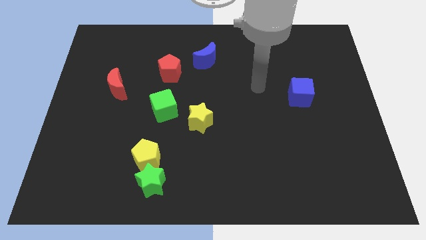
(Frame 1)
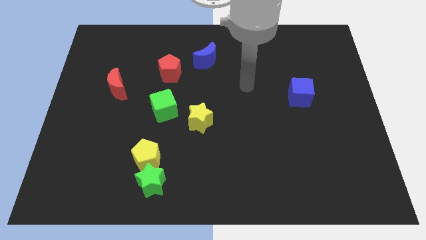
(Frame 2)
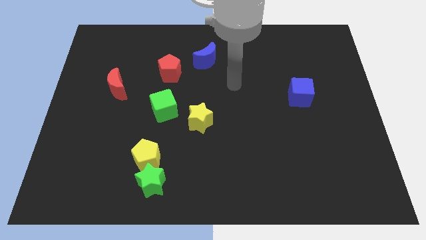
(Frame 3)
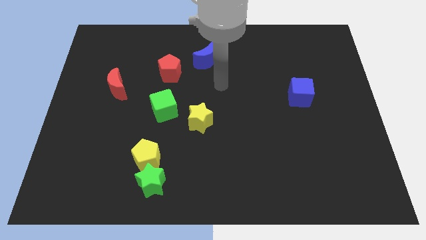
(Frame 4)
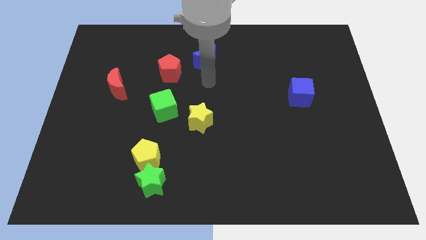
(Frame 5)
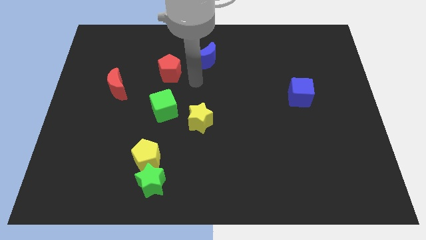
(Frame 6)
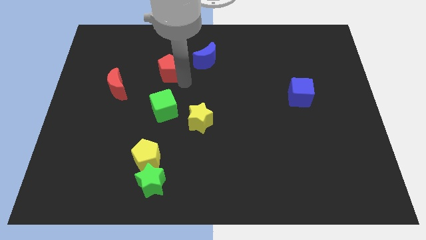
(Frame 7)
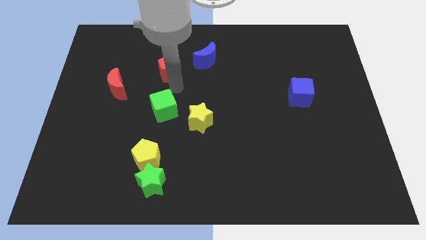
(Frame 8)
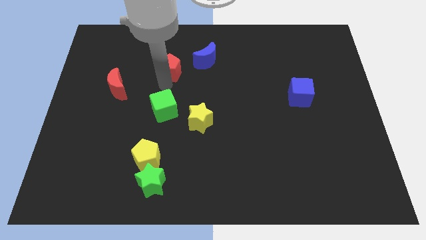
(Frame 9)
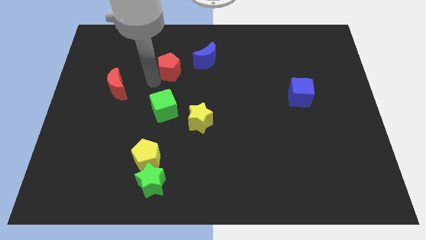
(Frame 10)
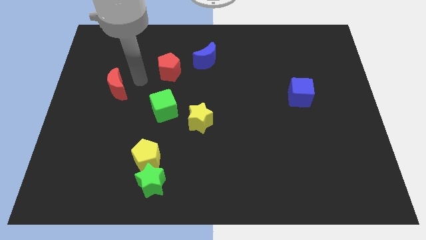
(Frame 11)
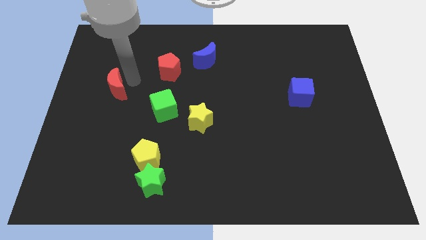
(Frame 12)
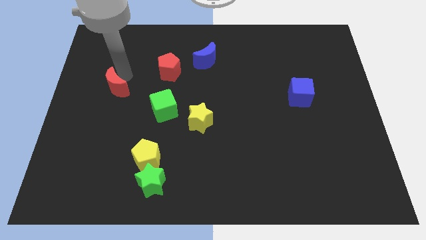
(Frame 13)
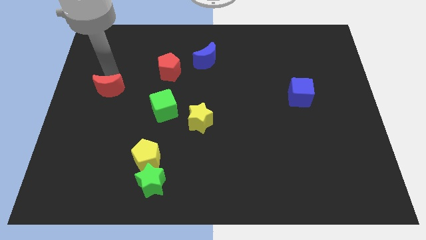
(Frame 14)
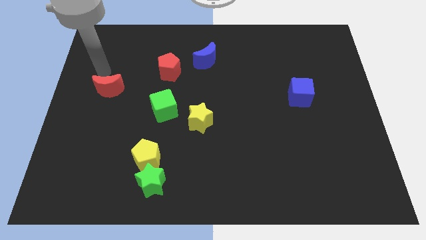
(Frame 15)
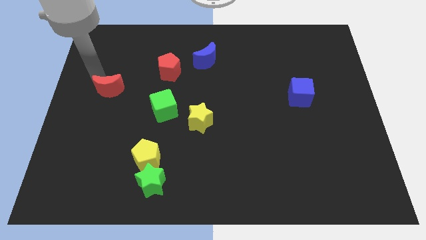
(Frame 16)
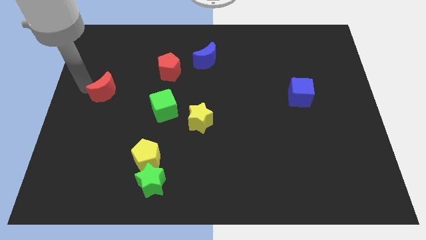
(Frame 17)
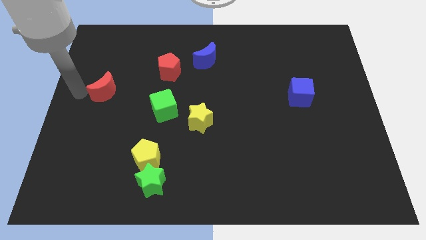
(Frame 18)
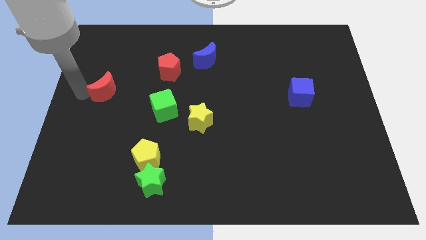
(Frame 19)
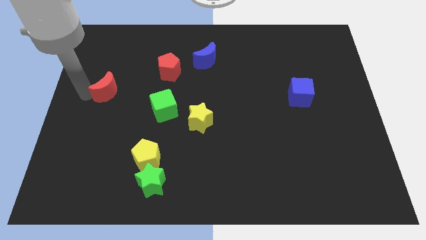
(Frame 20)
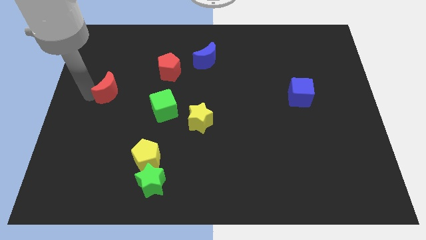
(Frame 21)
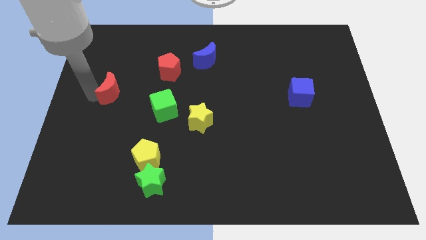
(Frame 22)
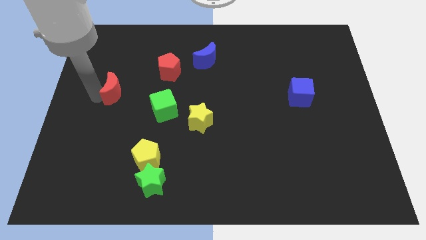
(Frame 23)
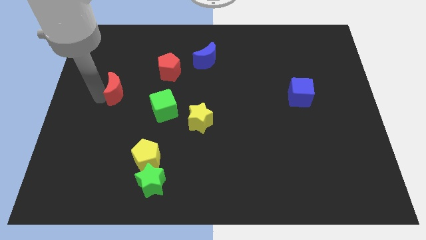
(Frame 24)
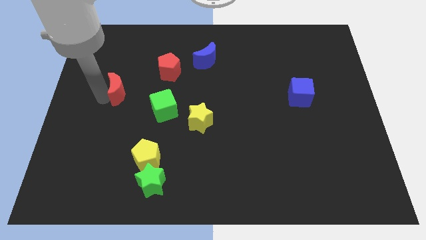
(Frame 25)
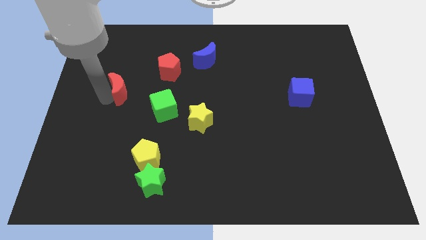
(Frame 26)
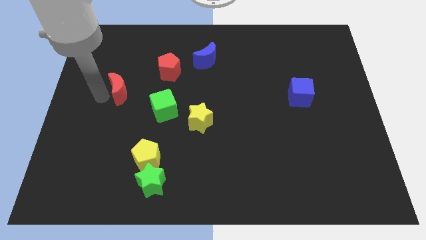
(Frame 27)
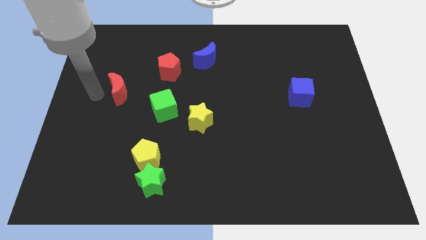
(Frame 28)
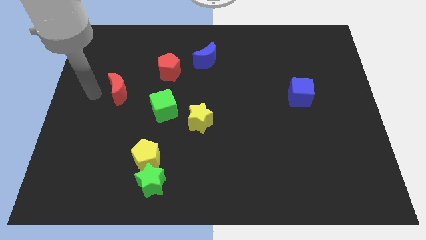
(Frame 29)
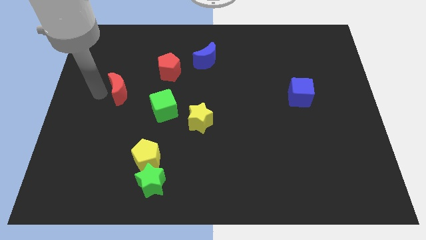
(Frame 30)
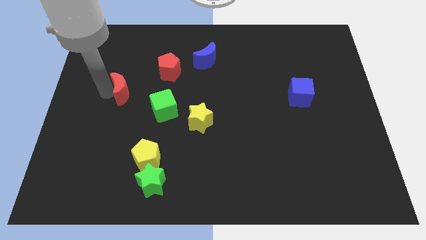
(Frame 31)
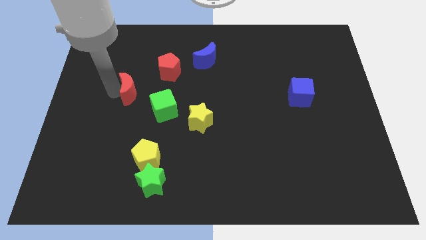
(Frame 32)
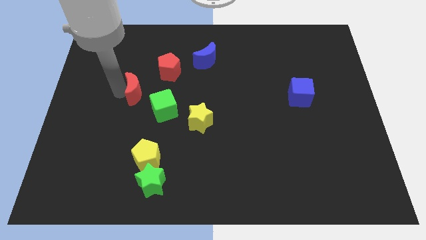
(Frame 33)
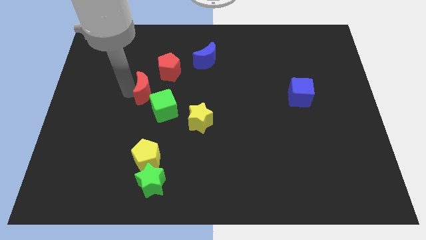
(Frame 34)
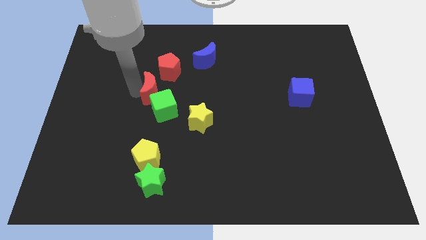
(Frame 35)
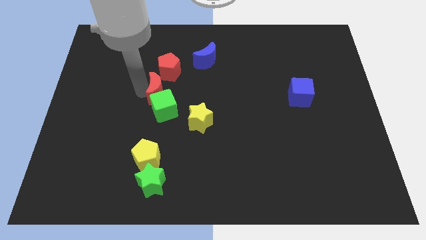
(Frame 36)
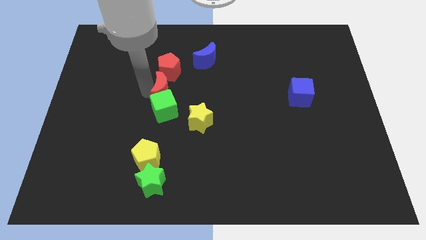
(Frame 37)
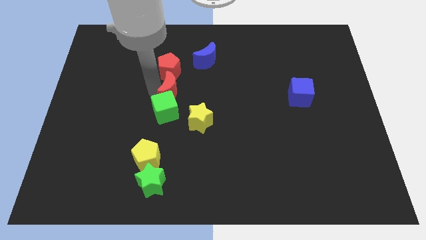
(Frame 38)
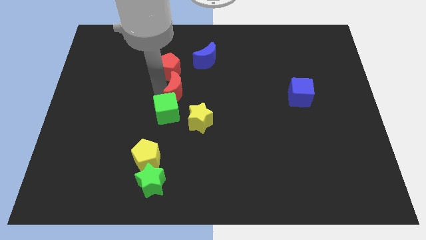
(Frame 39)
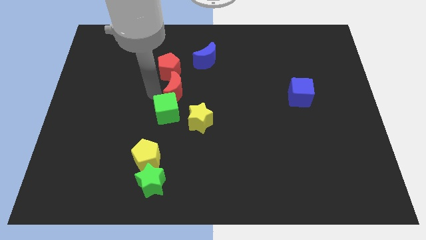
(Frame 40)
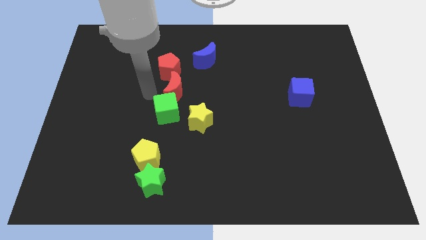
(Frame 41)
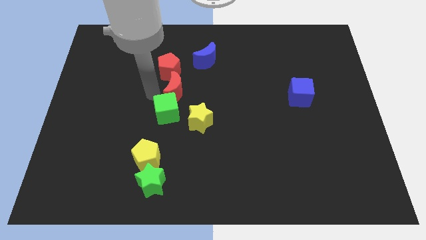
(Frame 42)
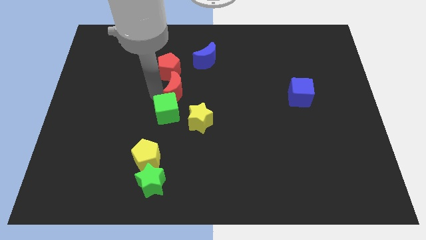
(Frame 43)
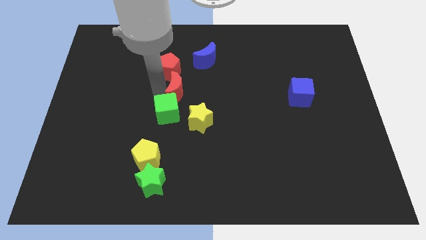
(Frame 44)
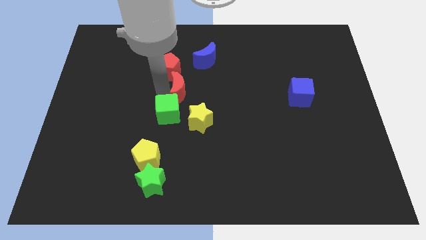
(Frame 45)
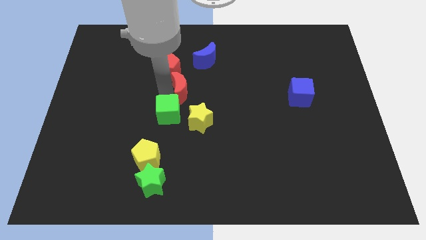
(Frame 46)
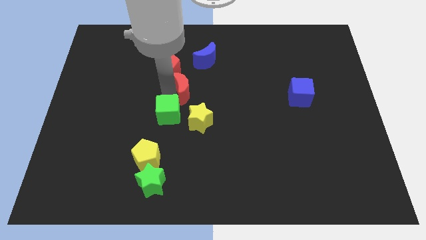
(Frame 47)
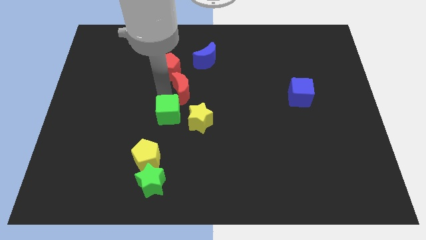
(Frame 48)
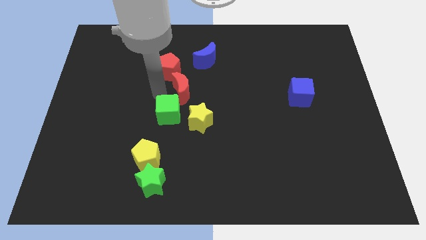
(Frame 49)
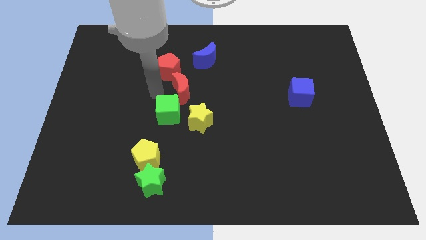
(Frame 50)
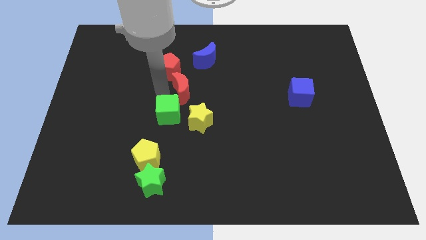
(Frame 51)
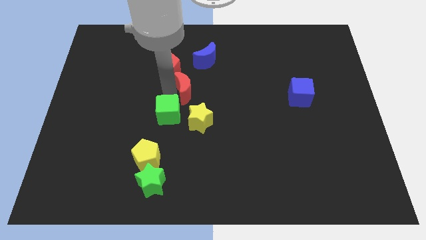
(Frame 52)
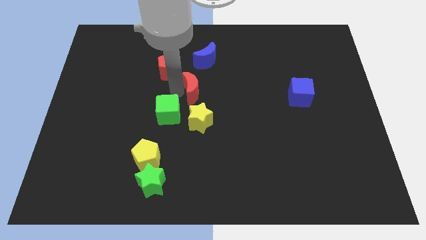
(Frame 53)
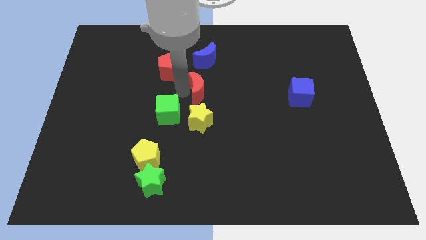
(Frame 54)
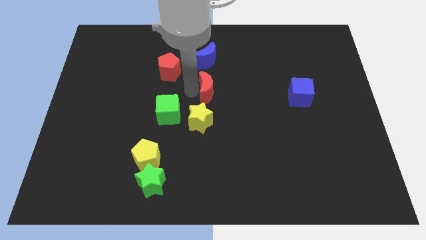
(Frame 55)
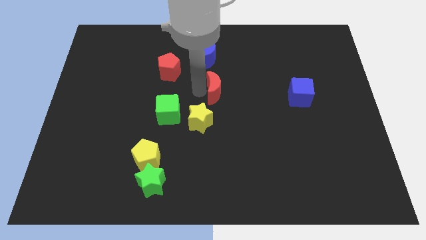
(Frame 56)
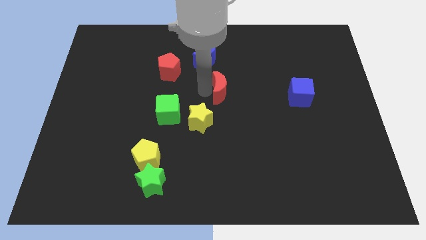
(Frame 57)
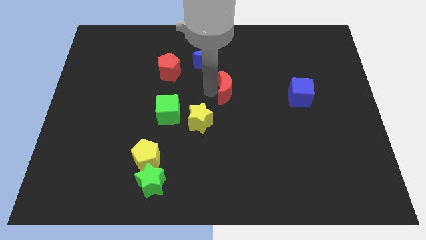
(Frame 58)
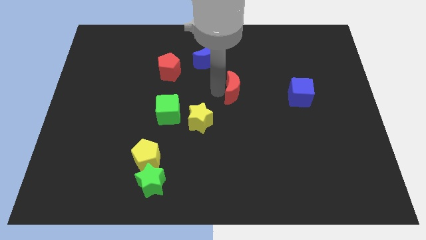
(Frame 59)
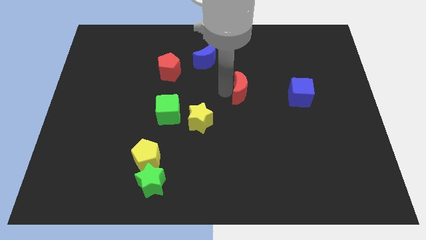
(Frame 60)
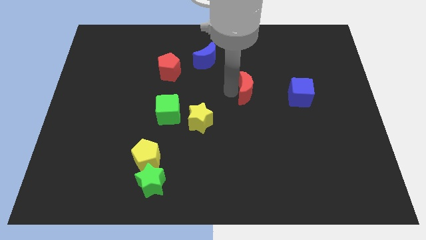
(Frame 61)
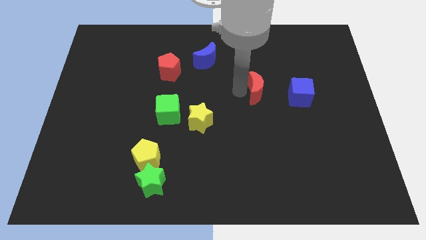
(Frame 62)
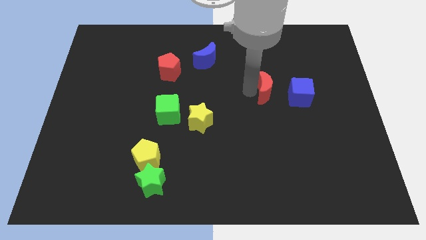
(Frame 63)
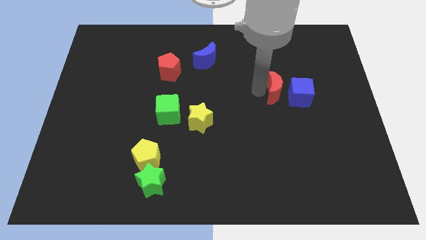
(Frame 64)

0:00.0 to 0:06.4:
push the red moon towards the blue cube
